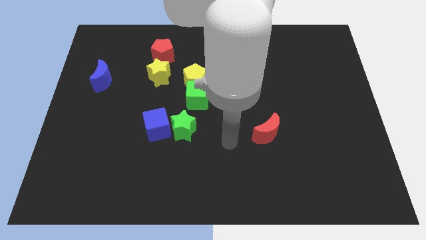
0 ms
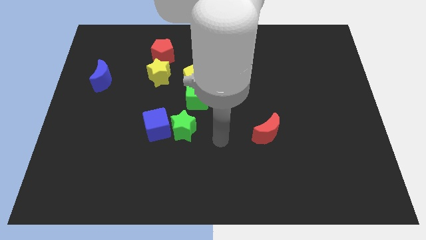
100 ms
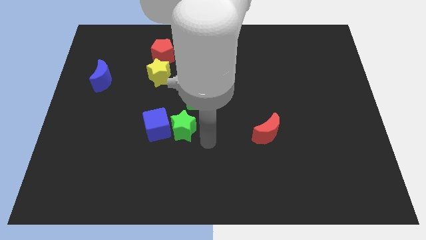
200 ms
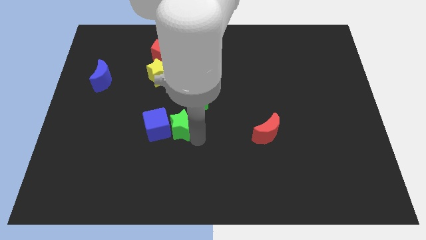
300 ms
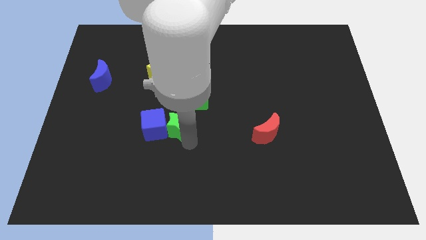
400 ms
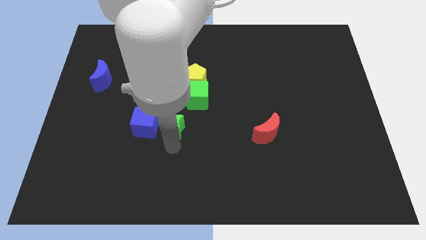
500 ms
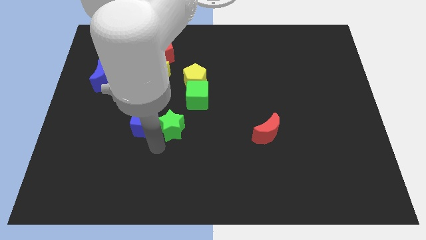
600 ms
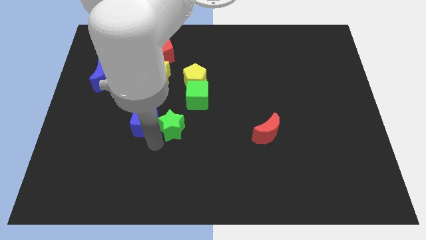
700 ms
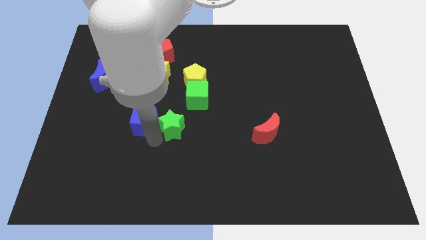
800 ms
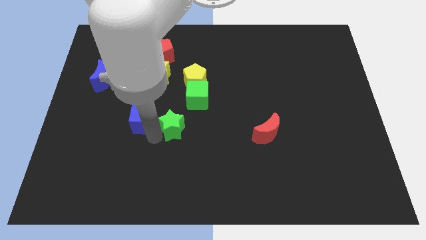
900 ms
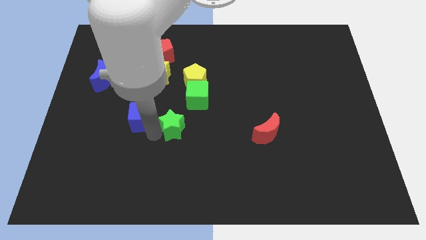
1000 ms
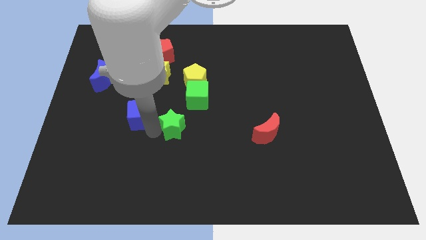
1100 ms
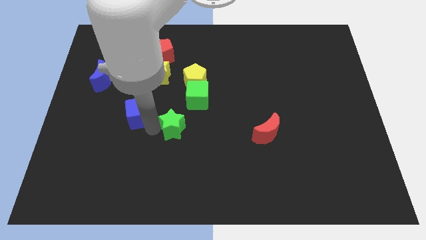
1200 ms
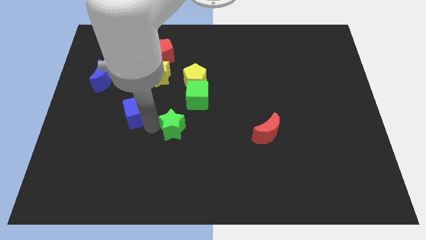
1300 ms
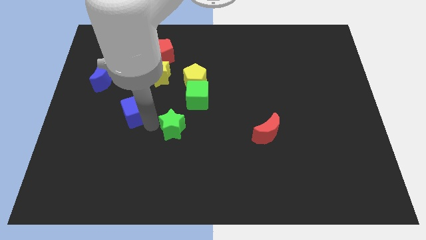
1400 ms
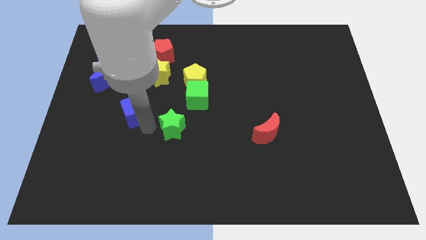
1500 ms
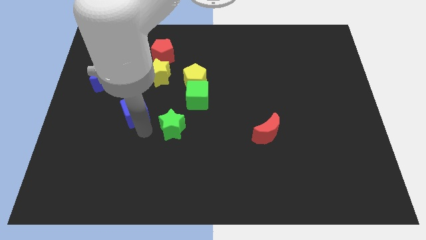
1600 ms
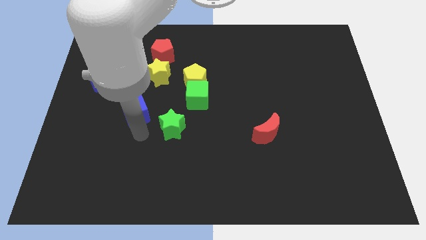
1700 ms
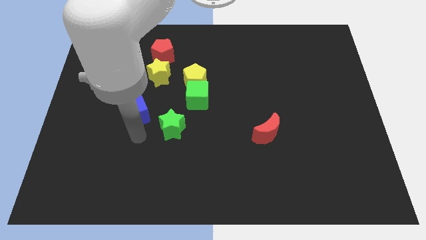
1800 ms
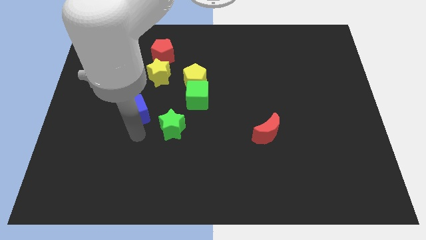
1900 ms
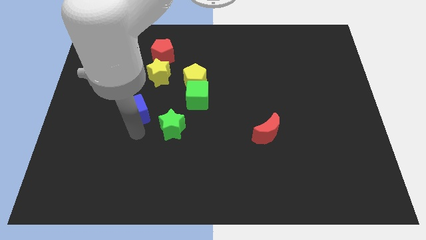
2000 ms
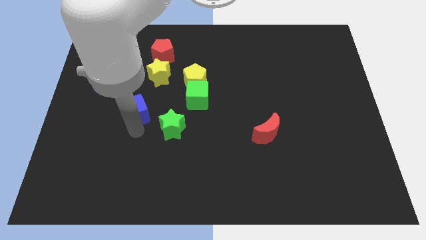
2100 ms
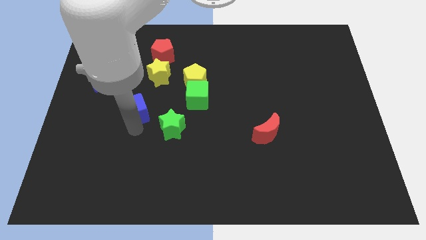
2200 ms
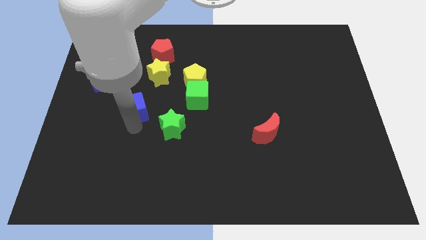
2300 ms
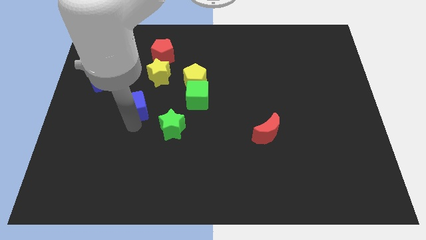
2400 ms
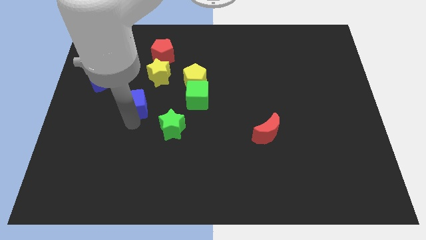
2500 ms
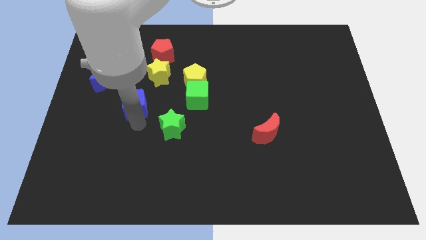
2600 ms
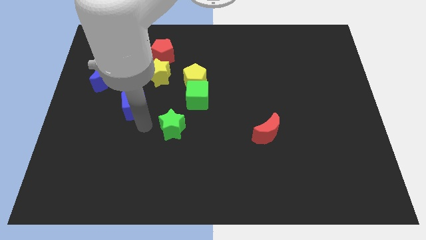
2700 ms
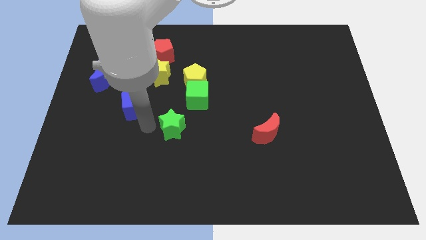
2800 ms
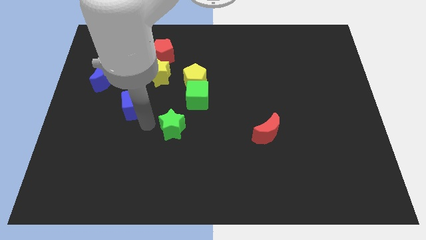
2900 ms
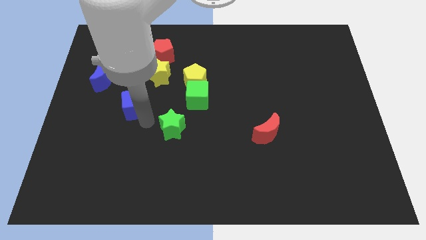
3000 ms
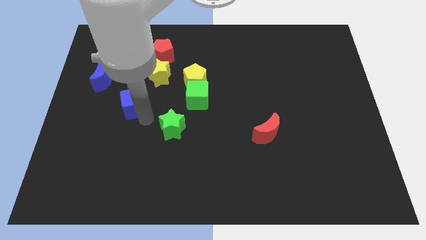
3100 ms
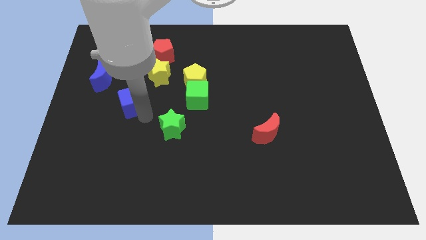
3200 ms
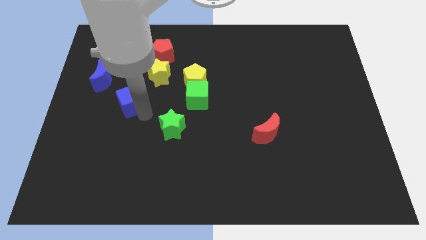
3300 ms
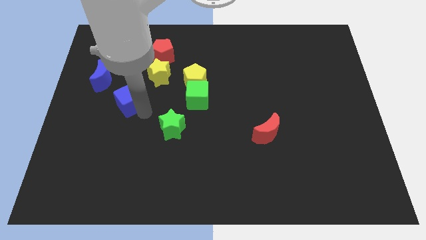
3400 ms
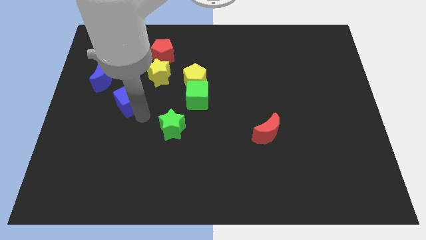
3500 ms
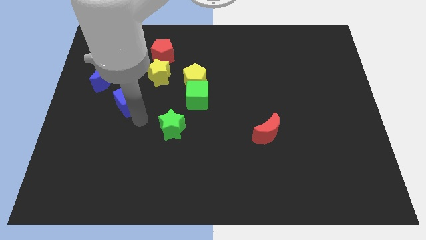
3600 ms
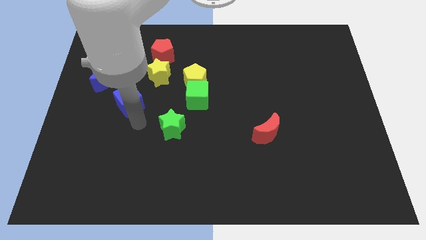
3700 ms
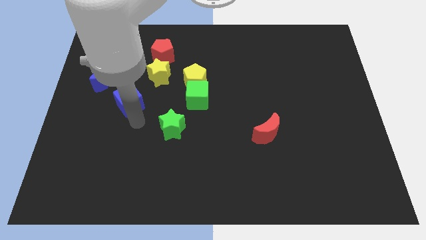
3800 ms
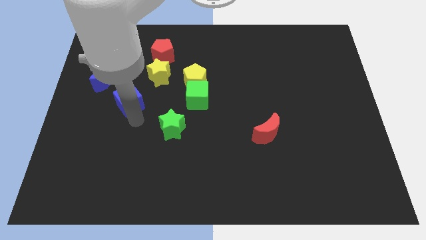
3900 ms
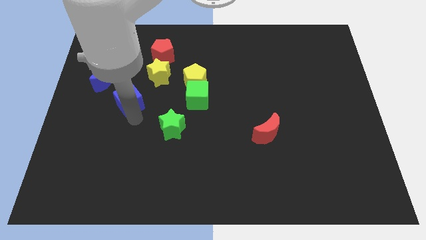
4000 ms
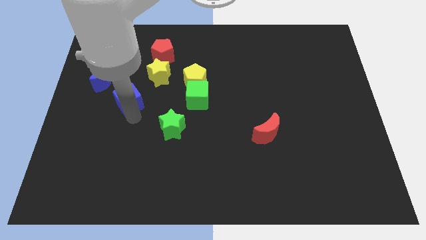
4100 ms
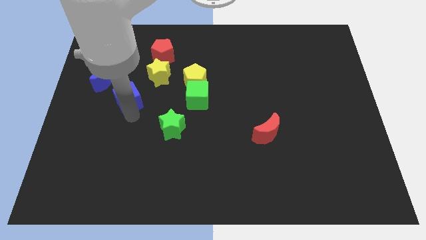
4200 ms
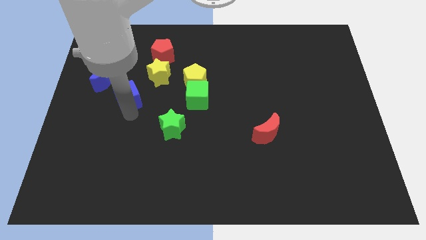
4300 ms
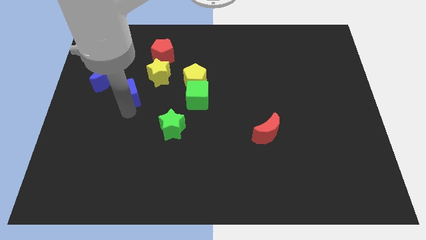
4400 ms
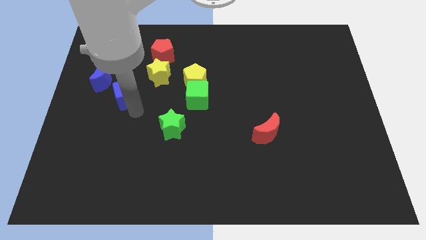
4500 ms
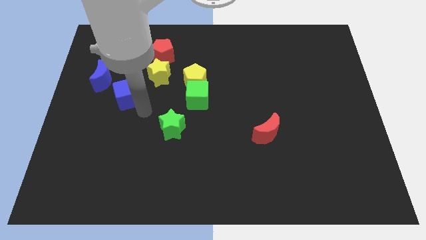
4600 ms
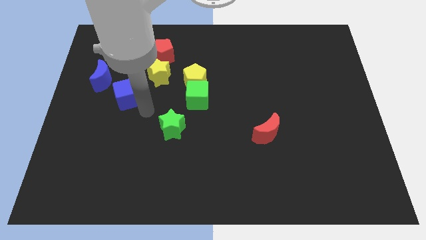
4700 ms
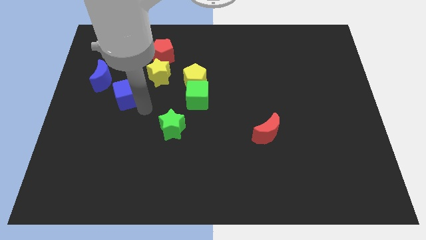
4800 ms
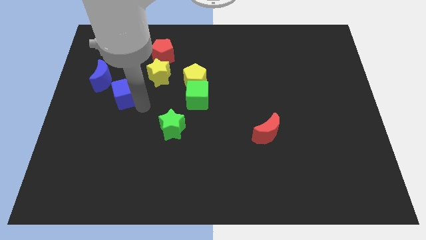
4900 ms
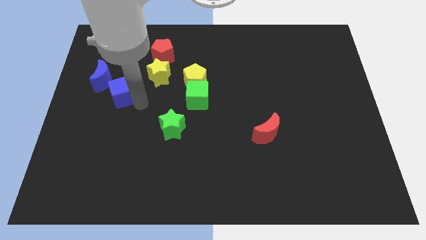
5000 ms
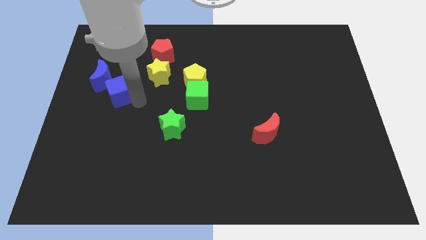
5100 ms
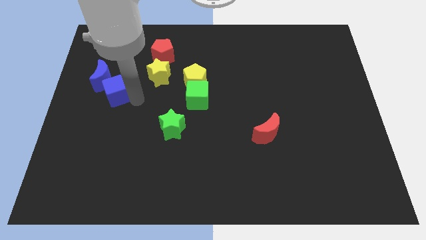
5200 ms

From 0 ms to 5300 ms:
push the blue cube to the blue moon

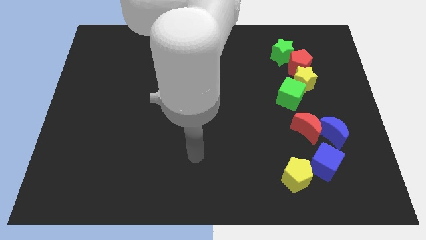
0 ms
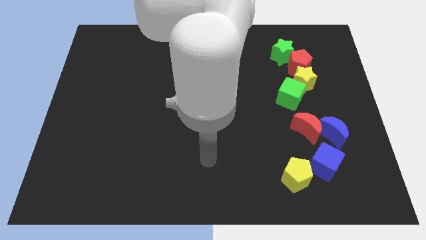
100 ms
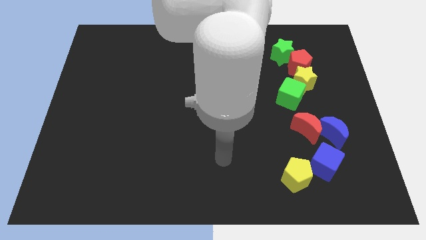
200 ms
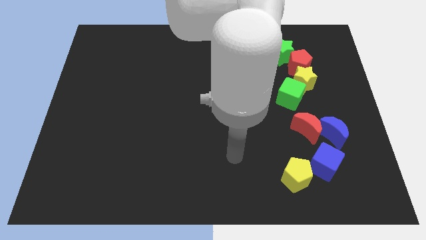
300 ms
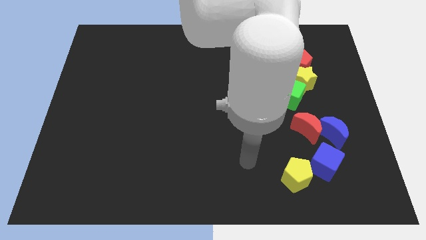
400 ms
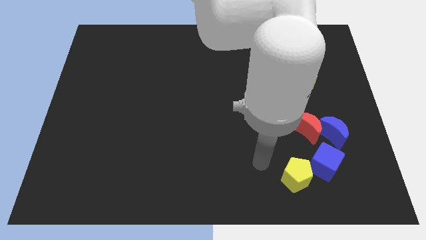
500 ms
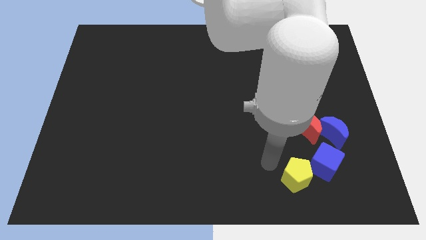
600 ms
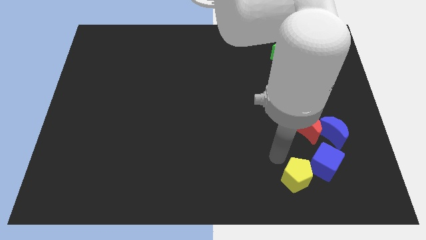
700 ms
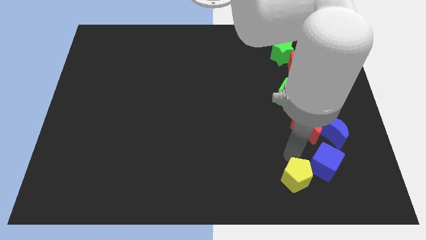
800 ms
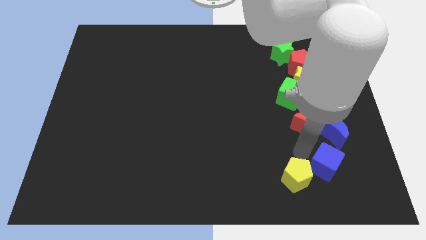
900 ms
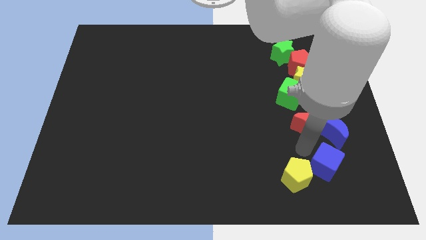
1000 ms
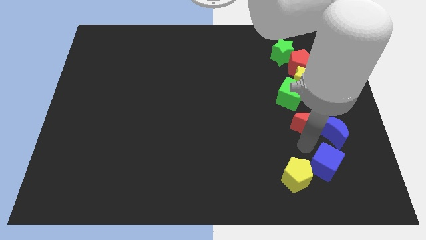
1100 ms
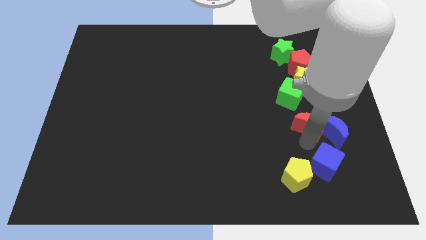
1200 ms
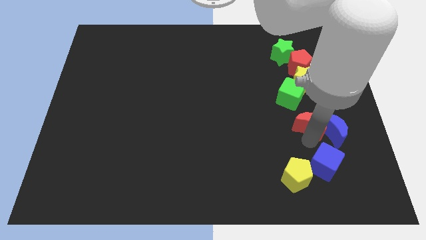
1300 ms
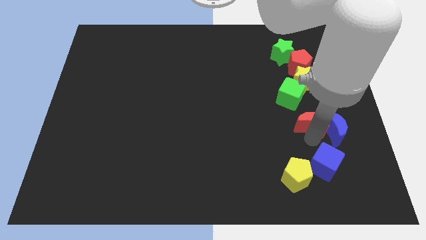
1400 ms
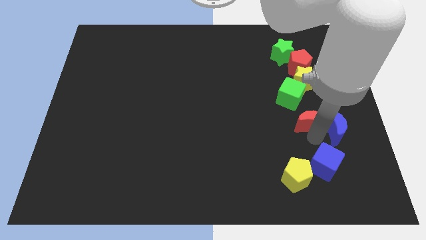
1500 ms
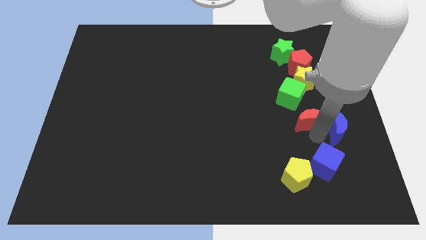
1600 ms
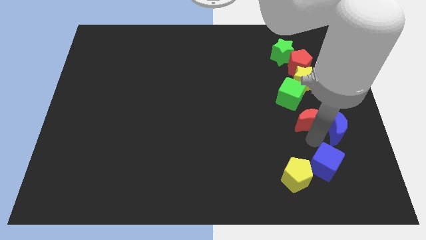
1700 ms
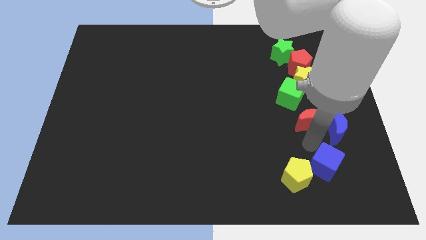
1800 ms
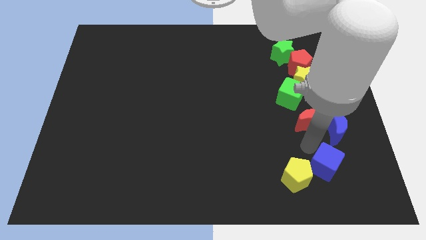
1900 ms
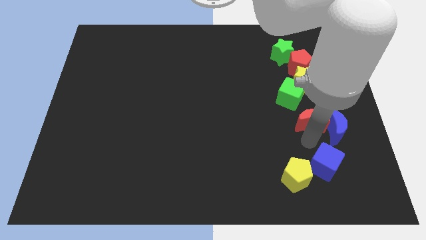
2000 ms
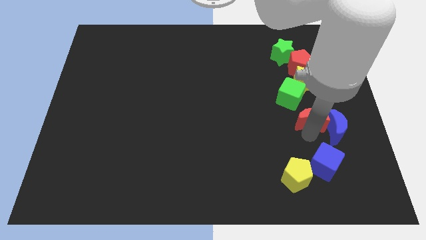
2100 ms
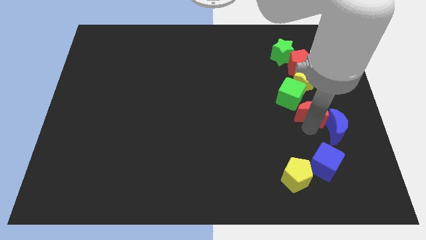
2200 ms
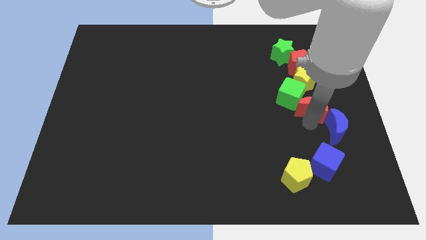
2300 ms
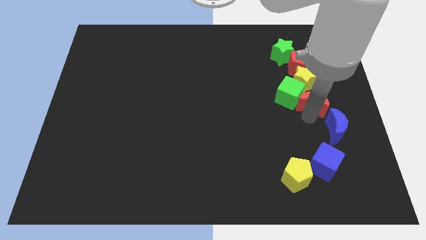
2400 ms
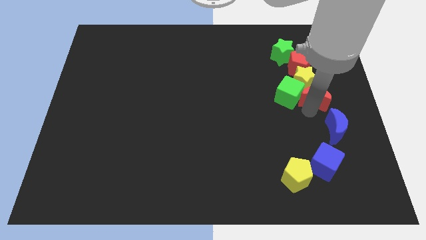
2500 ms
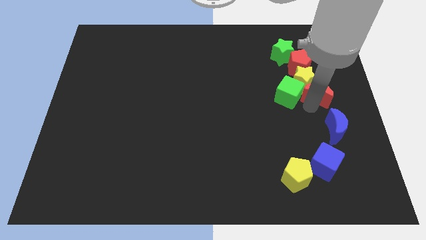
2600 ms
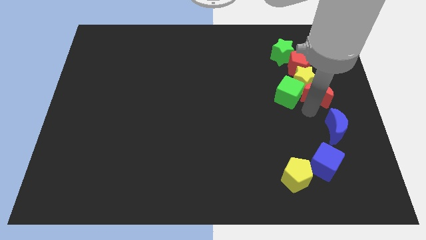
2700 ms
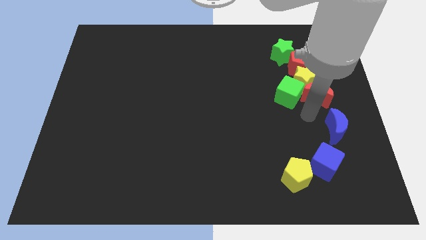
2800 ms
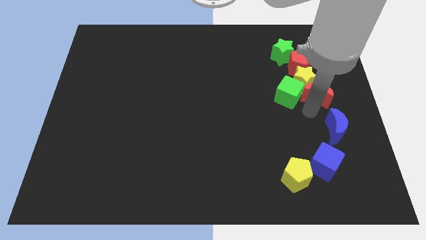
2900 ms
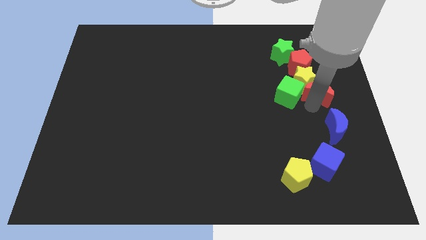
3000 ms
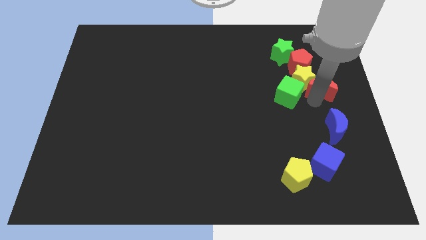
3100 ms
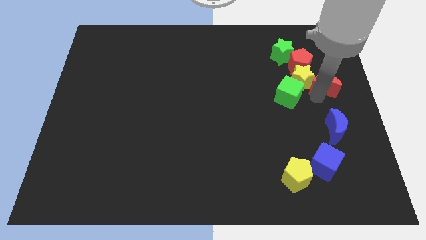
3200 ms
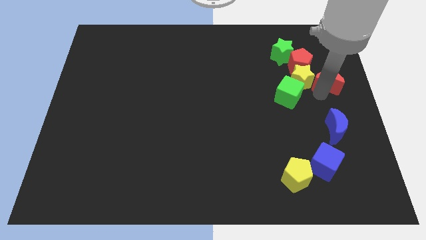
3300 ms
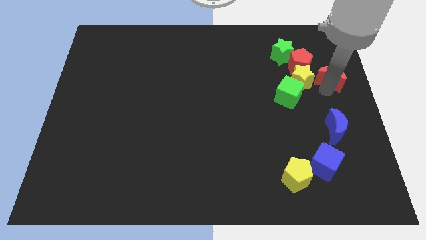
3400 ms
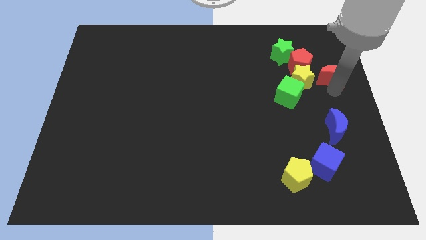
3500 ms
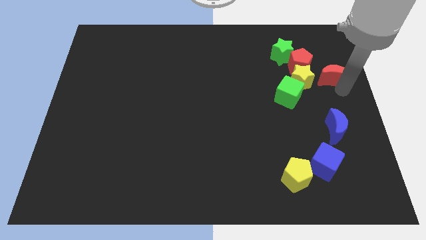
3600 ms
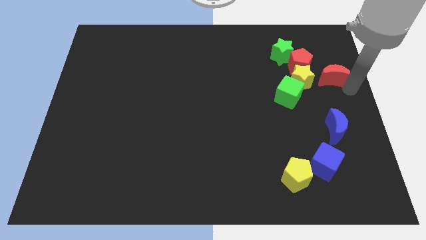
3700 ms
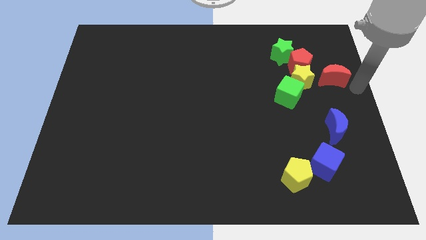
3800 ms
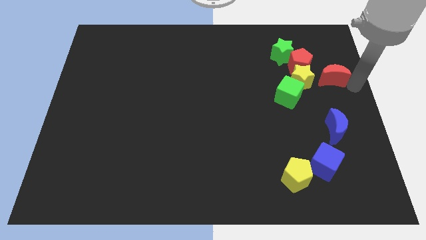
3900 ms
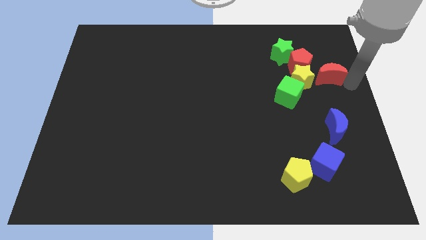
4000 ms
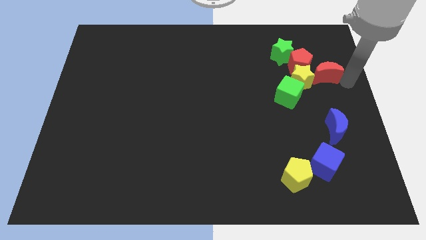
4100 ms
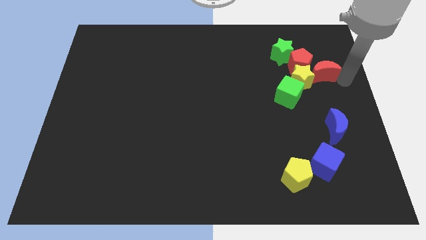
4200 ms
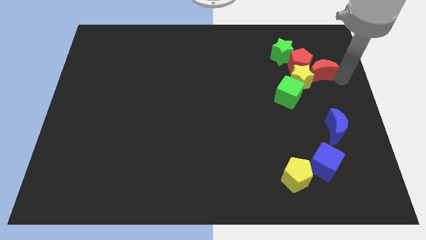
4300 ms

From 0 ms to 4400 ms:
push the red moon next to the red pentagon
